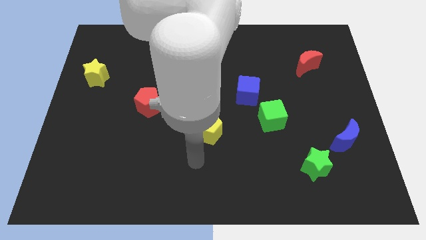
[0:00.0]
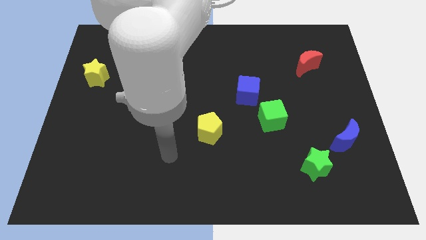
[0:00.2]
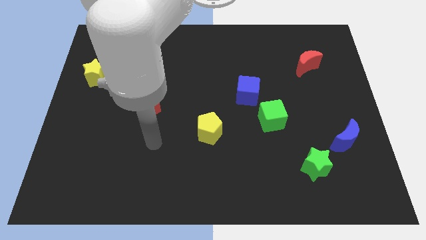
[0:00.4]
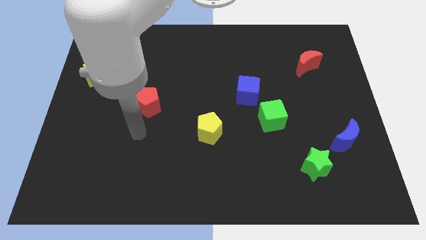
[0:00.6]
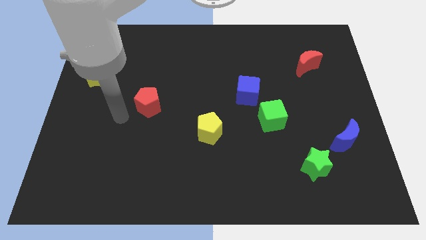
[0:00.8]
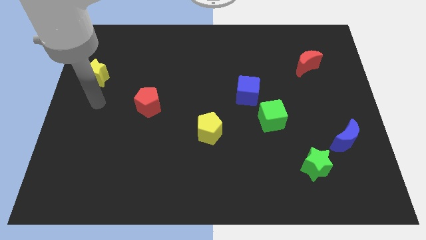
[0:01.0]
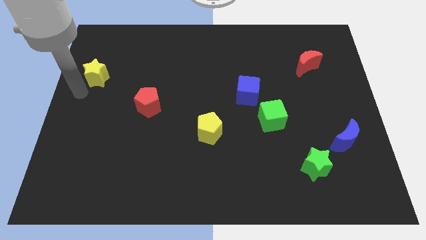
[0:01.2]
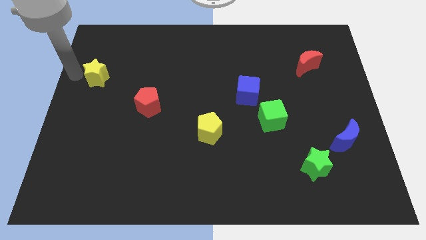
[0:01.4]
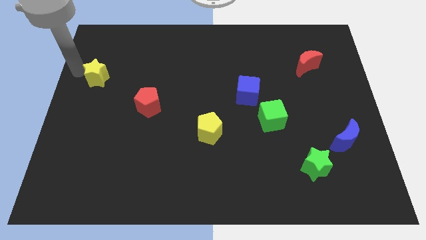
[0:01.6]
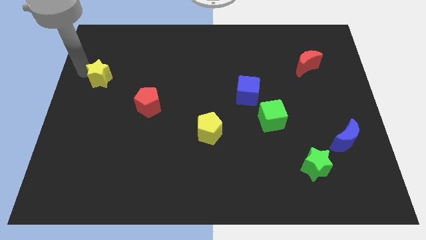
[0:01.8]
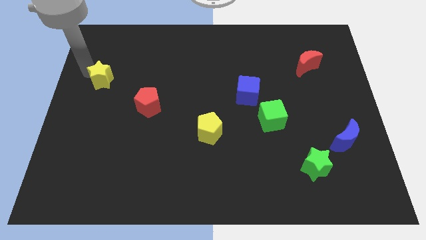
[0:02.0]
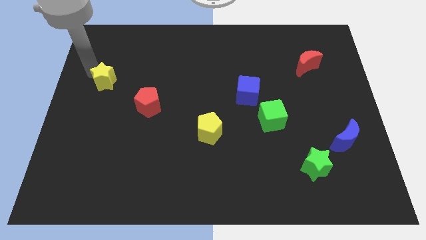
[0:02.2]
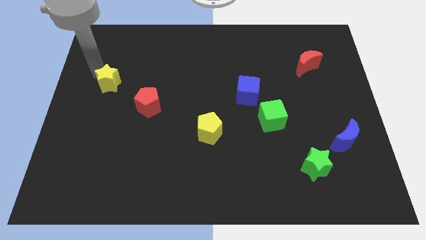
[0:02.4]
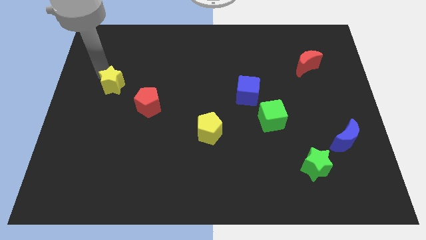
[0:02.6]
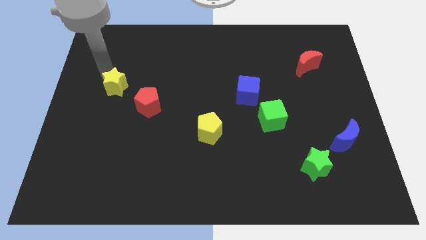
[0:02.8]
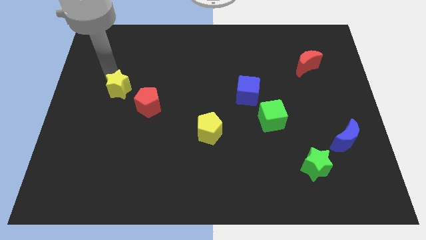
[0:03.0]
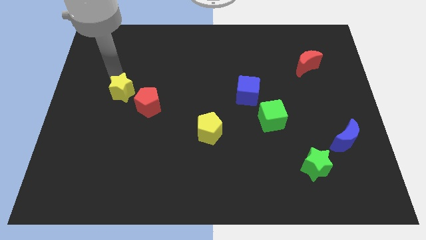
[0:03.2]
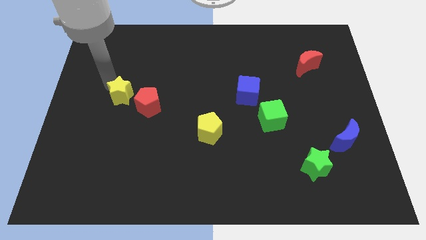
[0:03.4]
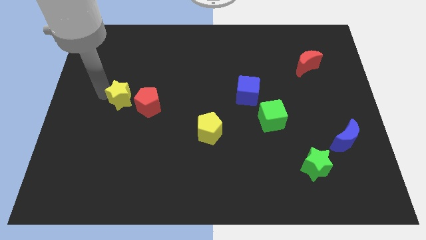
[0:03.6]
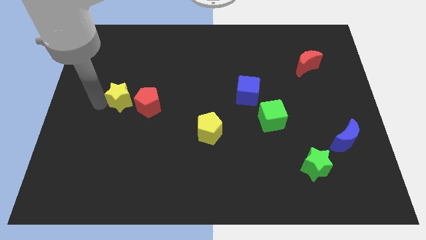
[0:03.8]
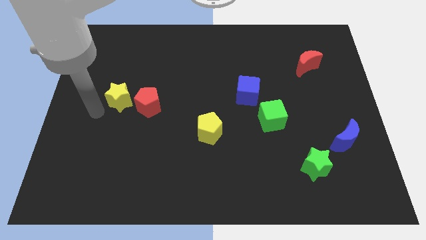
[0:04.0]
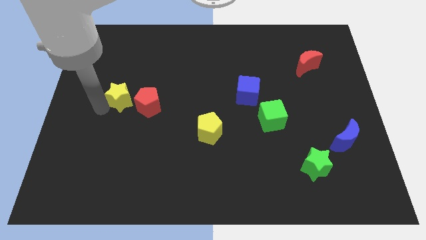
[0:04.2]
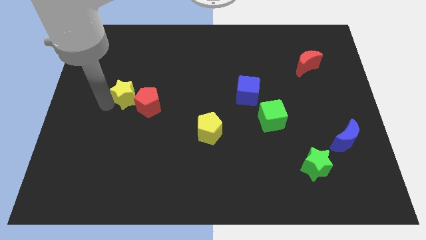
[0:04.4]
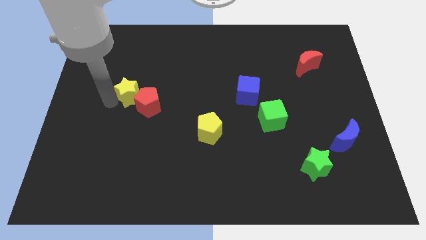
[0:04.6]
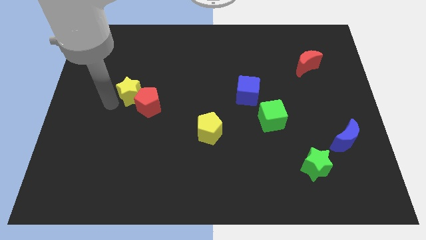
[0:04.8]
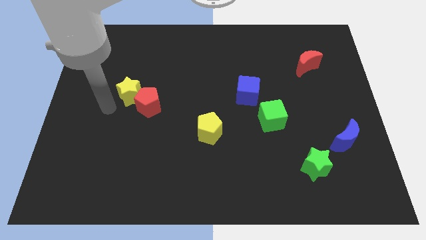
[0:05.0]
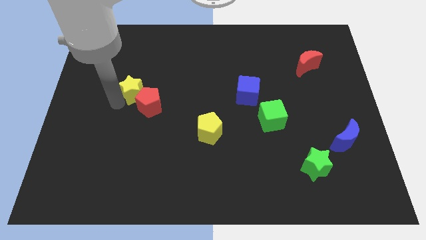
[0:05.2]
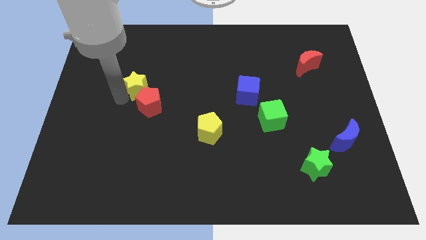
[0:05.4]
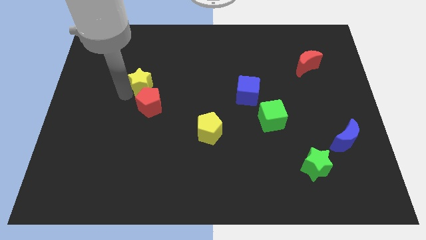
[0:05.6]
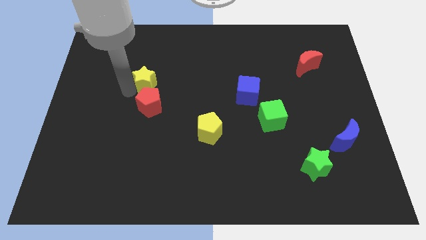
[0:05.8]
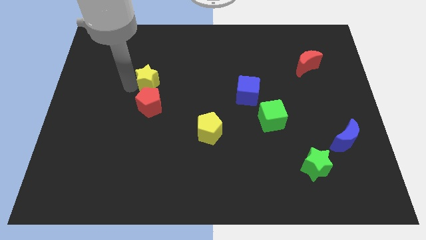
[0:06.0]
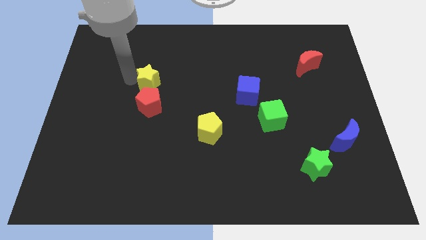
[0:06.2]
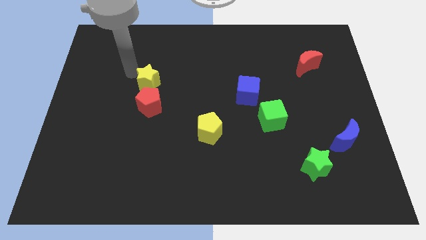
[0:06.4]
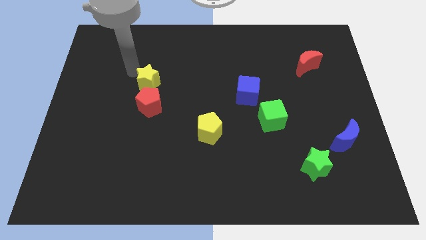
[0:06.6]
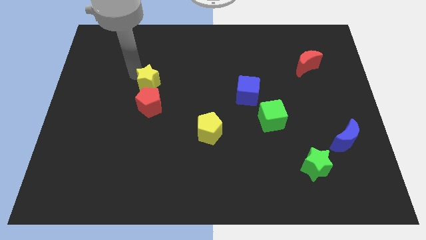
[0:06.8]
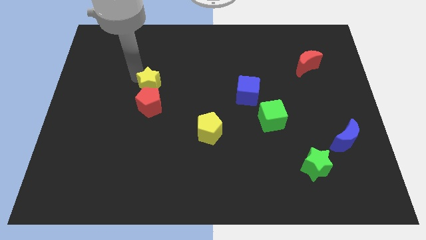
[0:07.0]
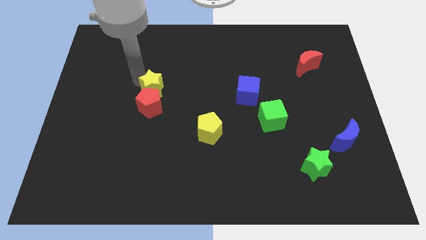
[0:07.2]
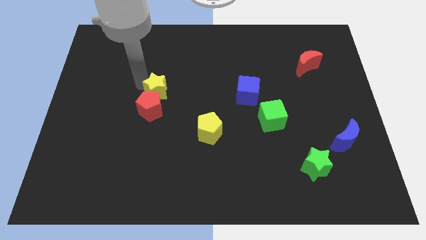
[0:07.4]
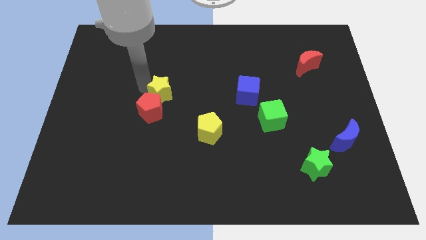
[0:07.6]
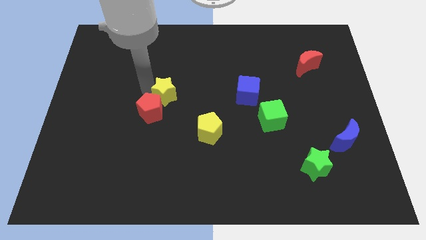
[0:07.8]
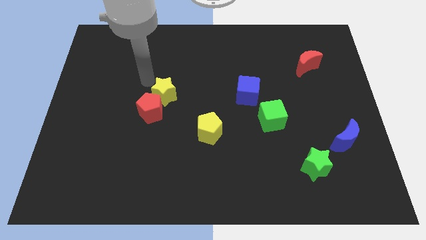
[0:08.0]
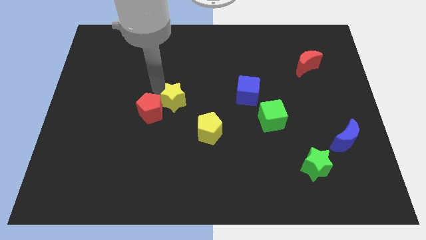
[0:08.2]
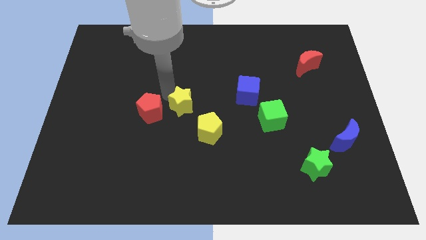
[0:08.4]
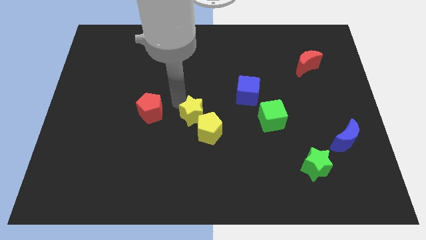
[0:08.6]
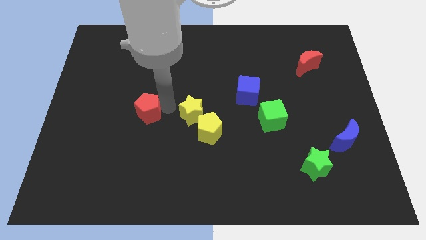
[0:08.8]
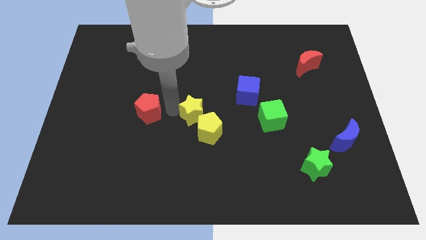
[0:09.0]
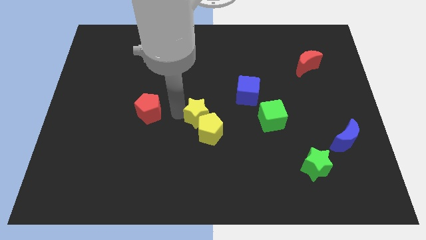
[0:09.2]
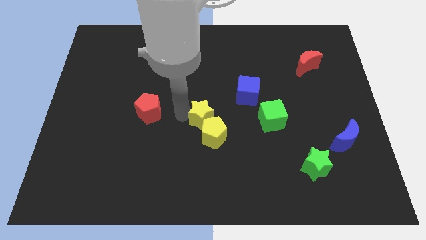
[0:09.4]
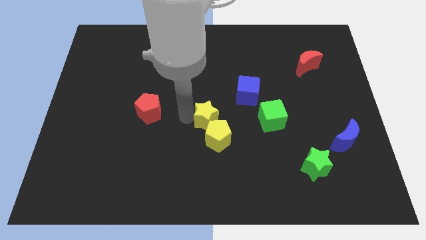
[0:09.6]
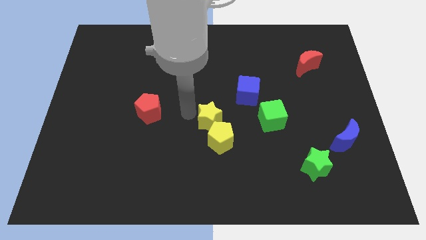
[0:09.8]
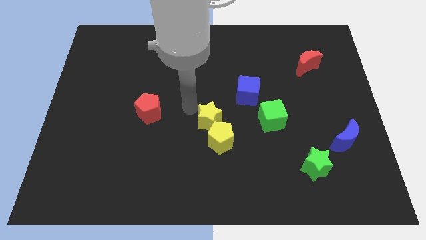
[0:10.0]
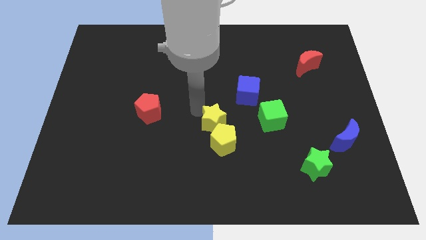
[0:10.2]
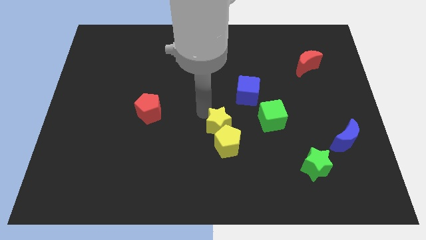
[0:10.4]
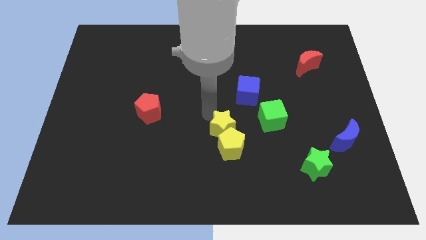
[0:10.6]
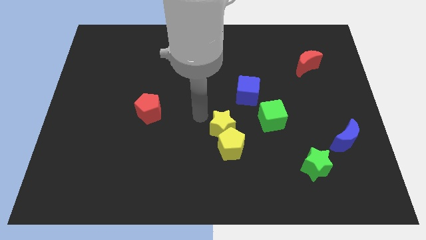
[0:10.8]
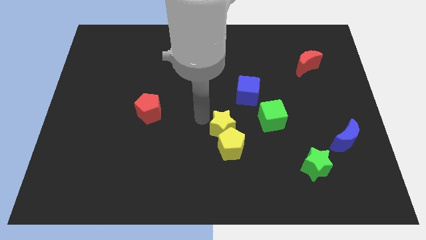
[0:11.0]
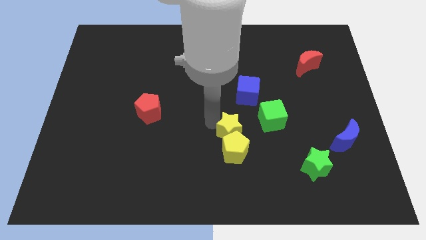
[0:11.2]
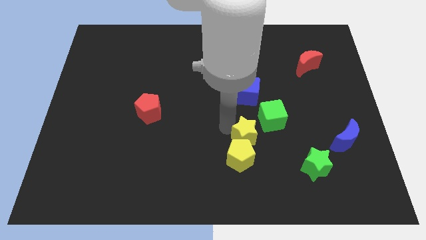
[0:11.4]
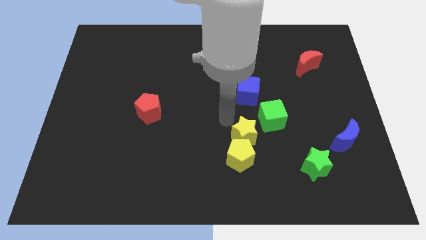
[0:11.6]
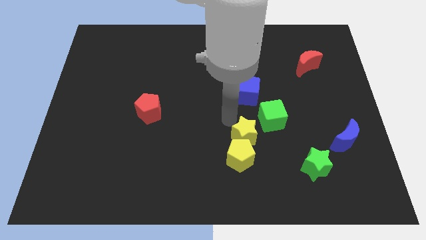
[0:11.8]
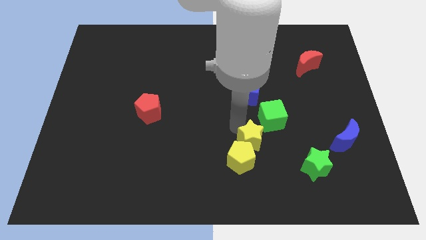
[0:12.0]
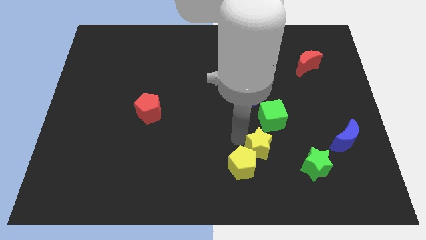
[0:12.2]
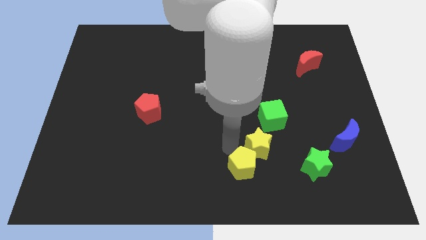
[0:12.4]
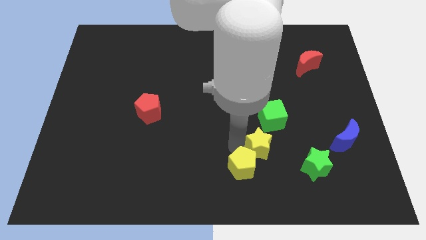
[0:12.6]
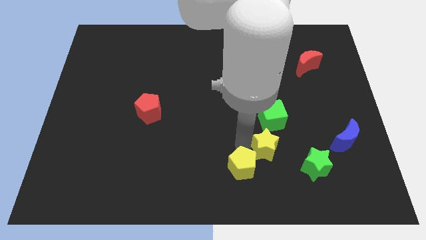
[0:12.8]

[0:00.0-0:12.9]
push the yellow star diagonally up and to the left of the green star

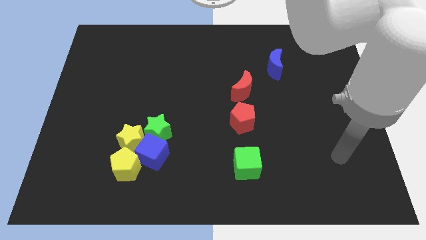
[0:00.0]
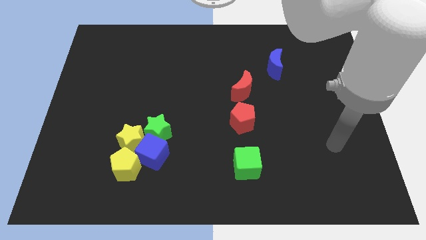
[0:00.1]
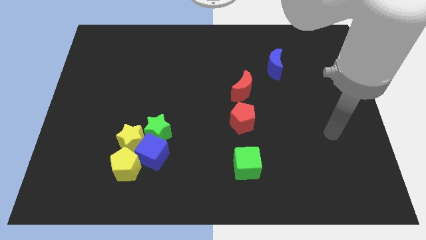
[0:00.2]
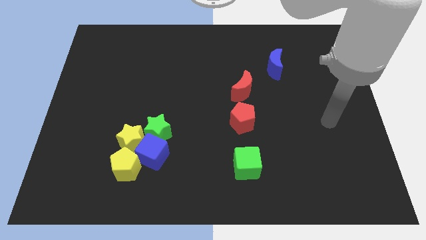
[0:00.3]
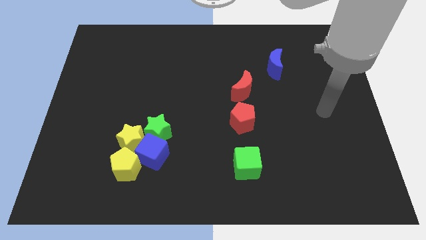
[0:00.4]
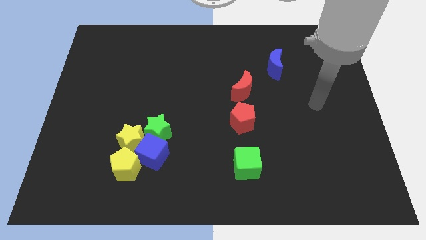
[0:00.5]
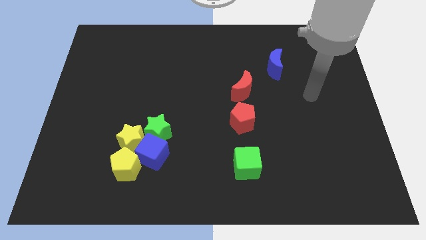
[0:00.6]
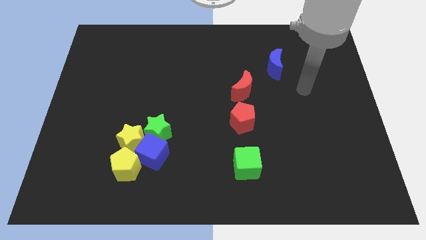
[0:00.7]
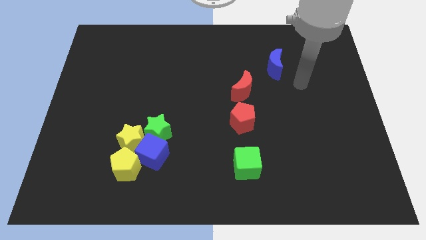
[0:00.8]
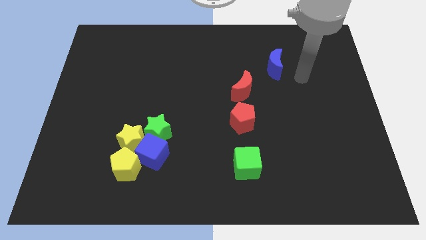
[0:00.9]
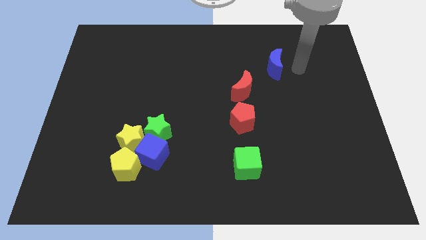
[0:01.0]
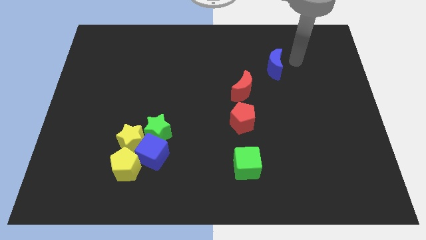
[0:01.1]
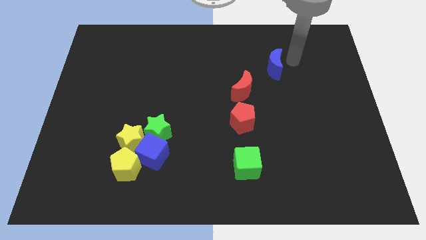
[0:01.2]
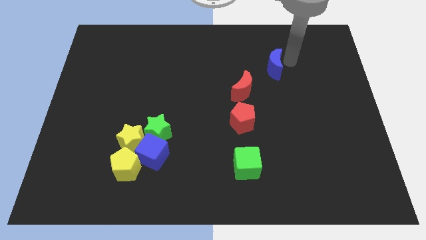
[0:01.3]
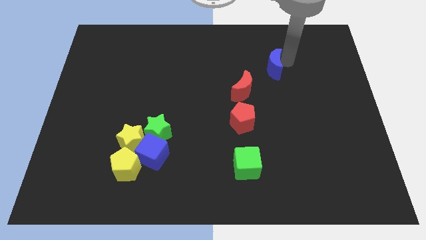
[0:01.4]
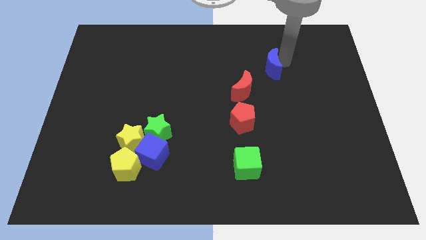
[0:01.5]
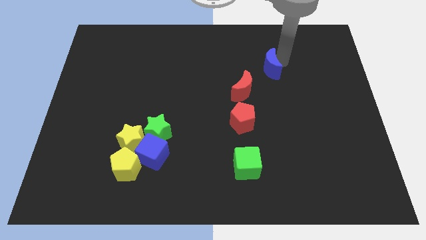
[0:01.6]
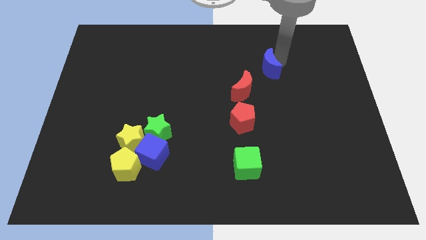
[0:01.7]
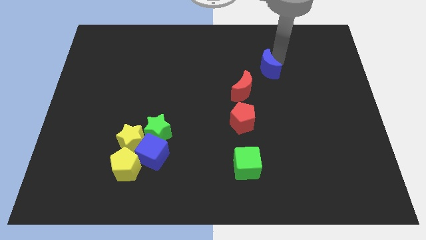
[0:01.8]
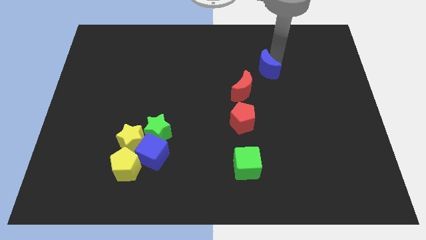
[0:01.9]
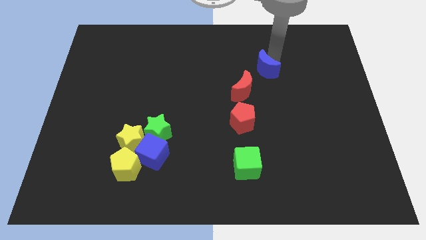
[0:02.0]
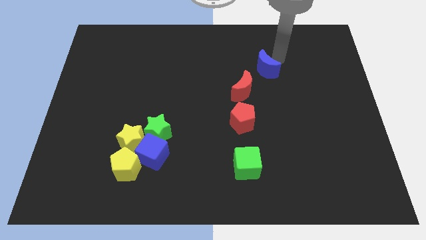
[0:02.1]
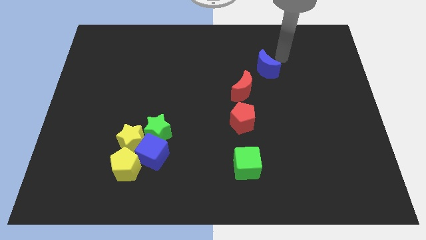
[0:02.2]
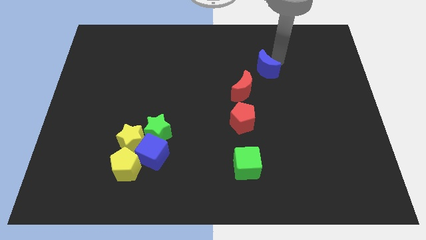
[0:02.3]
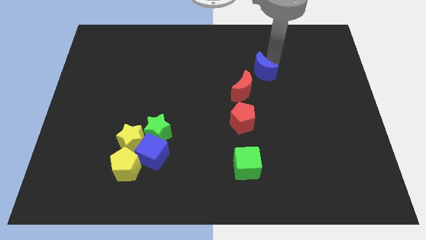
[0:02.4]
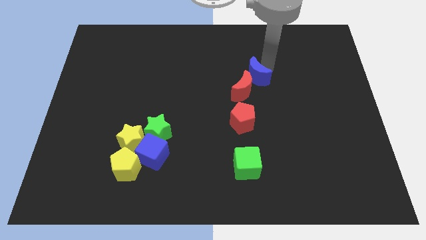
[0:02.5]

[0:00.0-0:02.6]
push the blue moon to the top of the red pentagon
